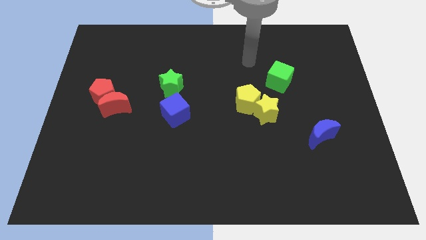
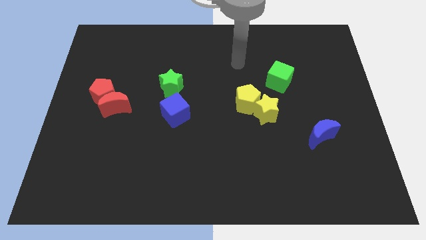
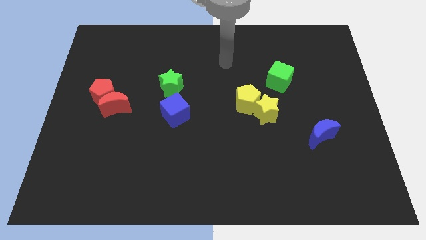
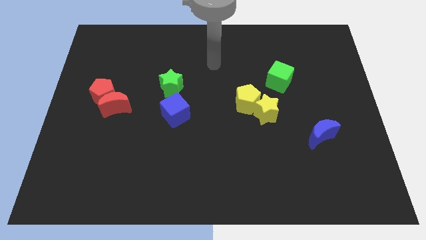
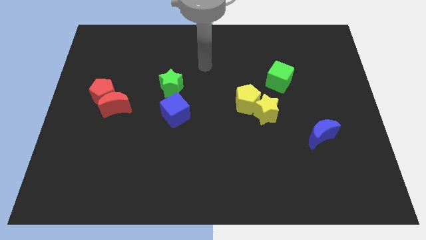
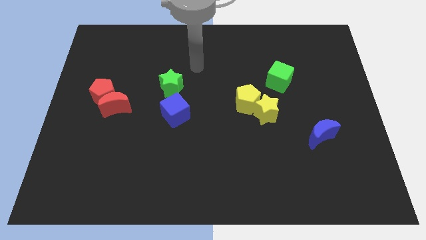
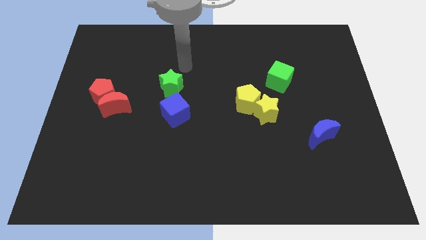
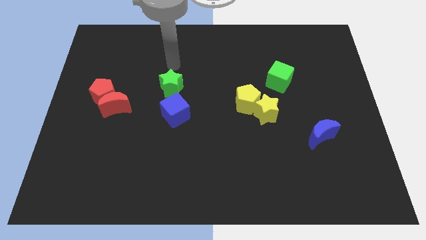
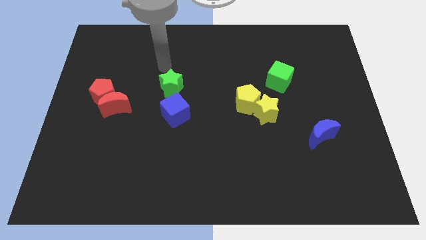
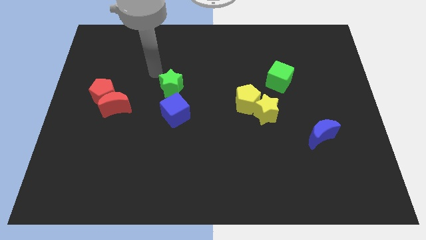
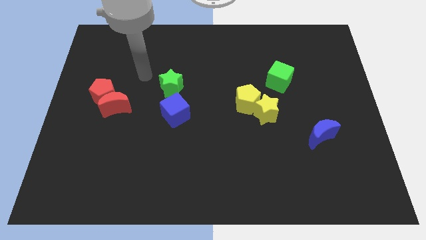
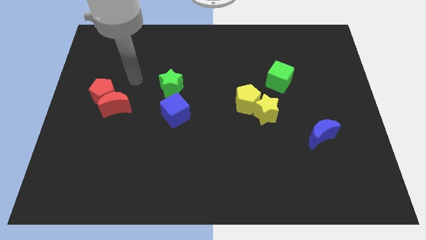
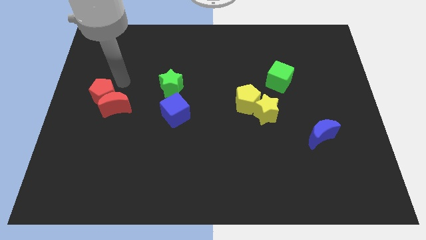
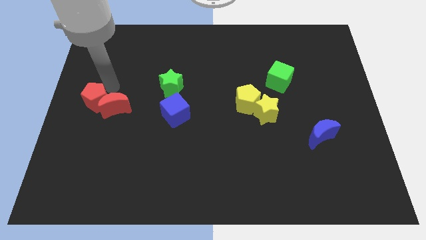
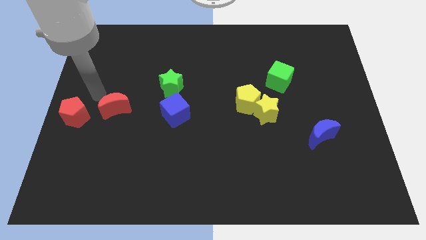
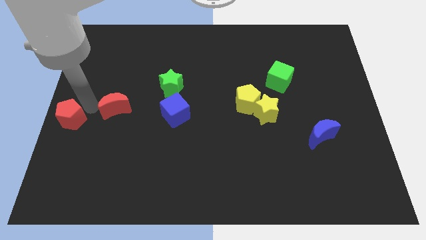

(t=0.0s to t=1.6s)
pull the red moon apart from the red pentagon

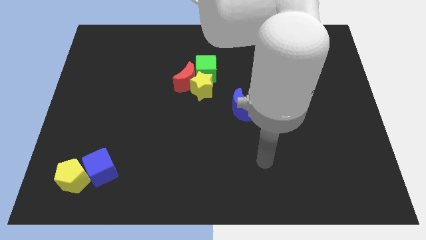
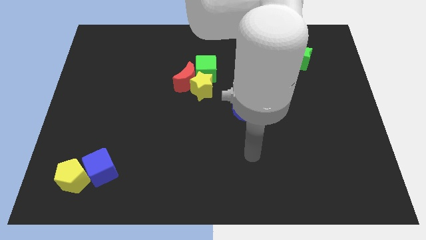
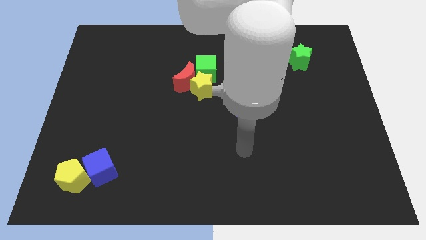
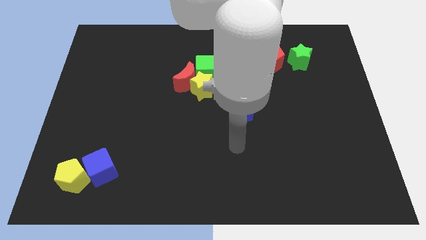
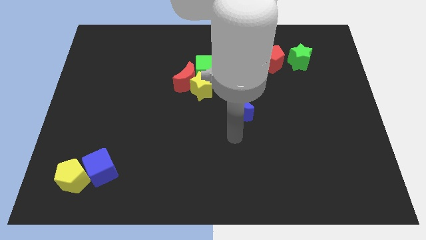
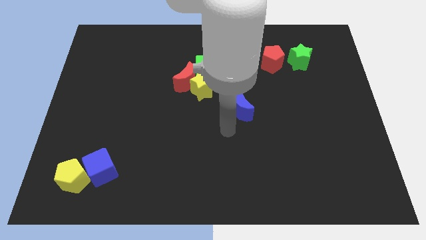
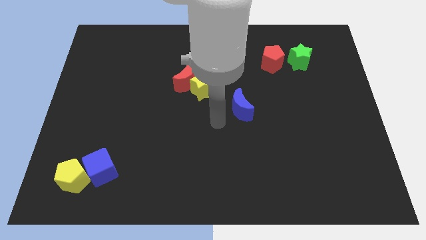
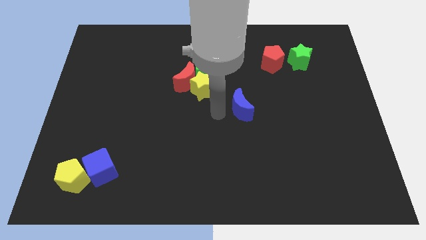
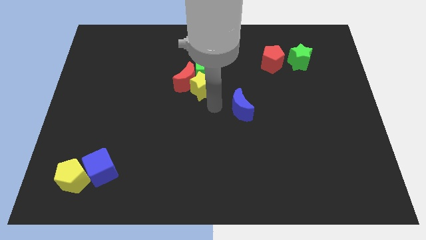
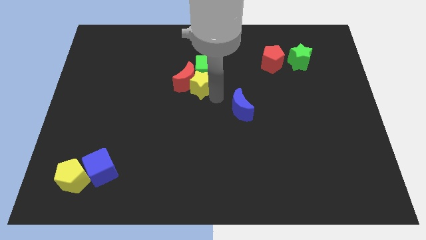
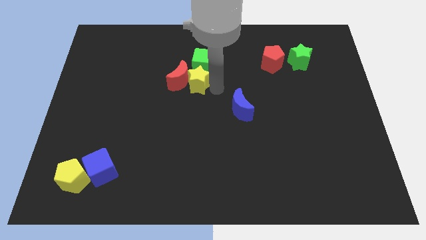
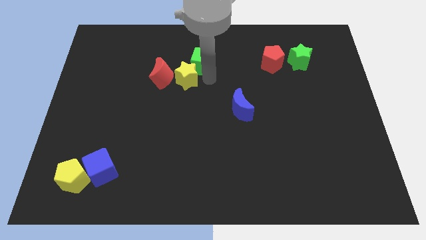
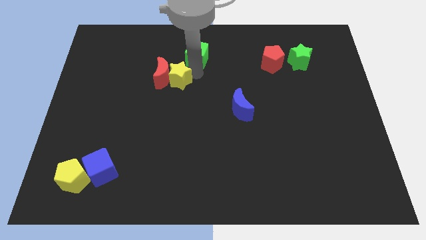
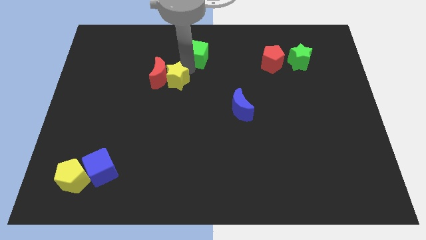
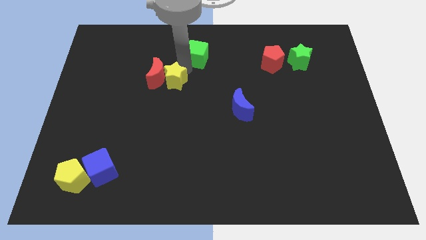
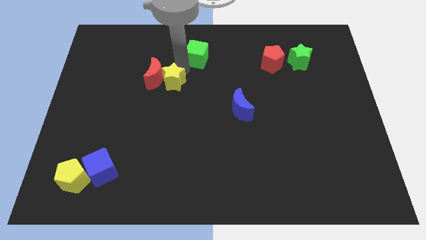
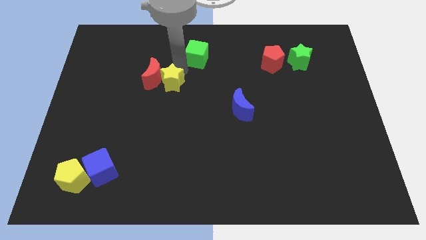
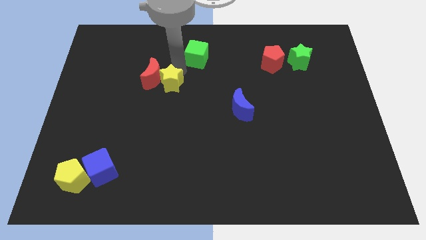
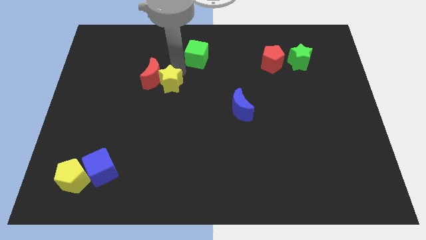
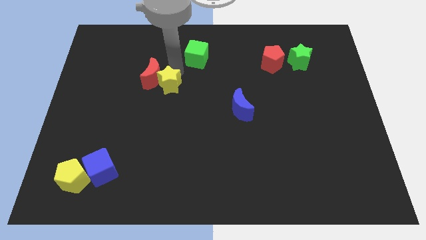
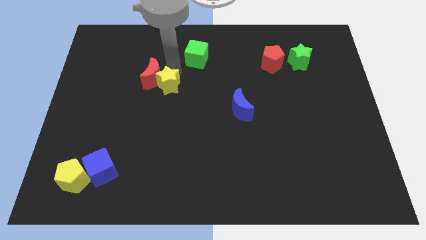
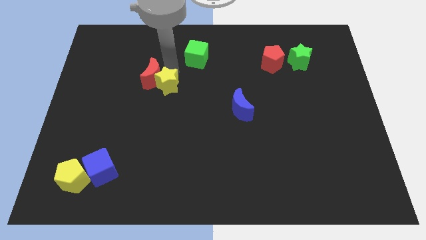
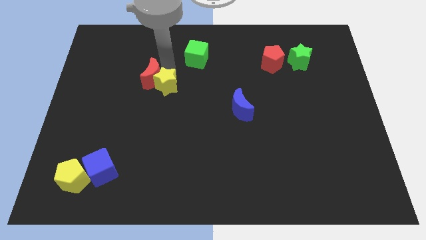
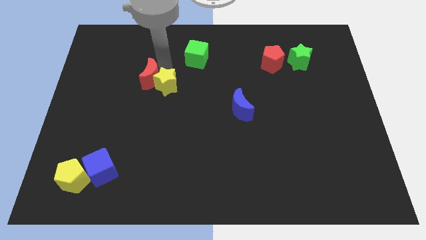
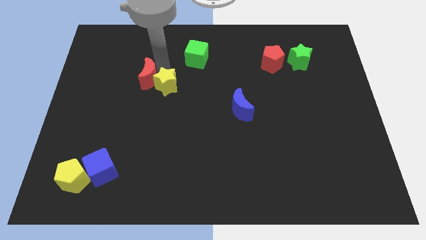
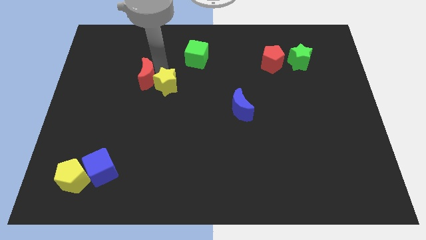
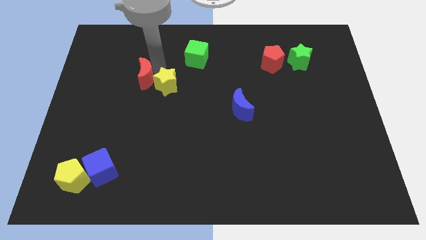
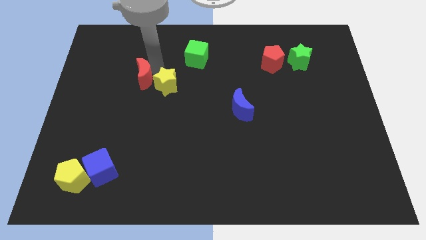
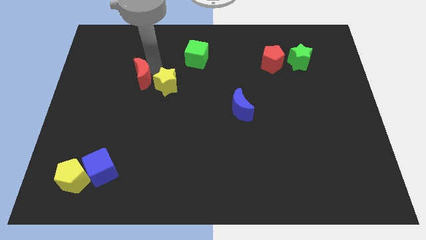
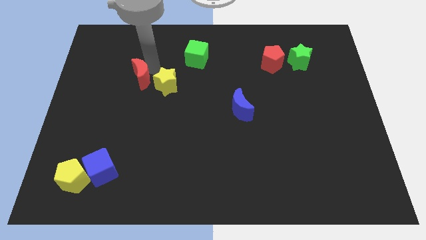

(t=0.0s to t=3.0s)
move the red moon away from the yellow star and green cube

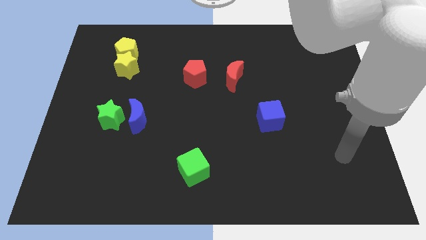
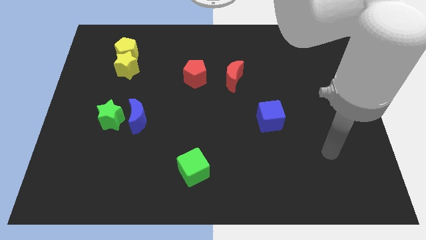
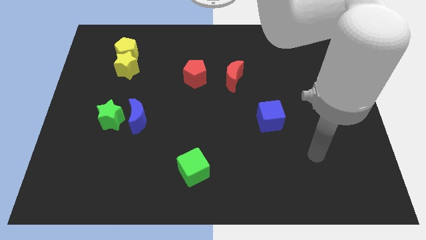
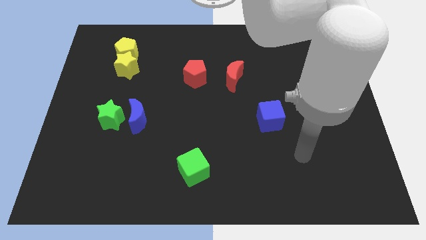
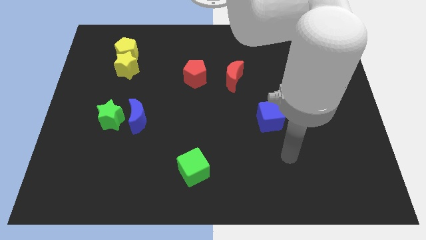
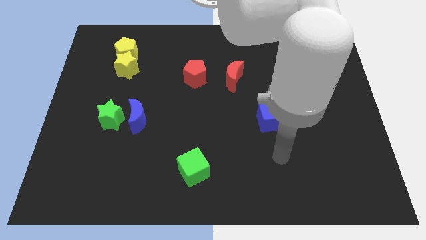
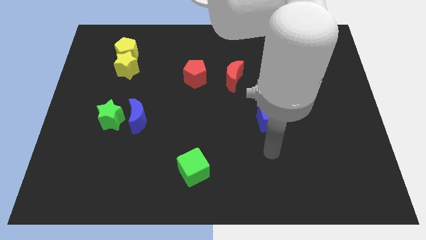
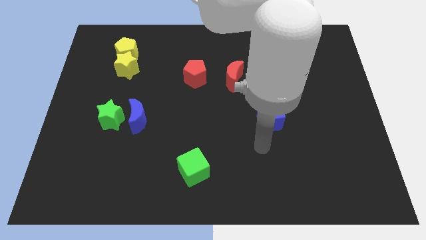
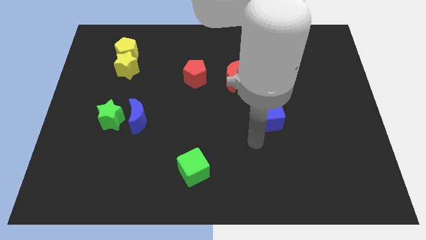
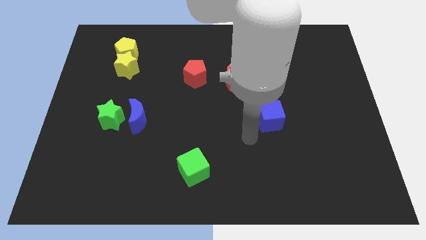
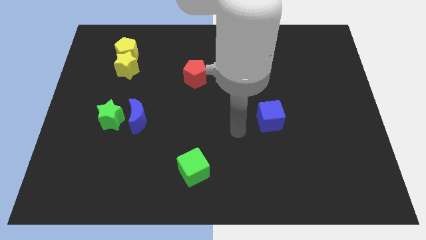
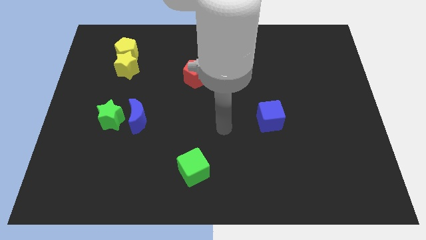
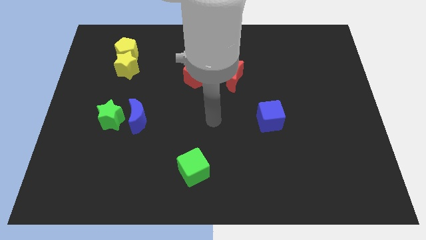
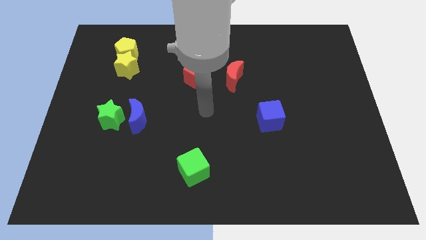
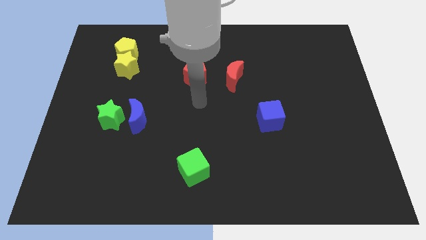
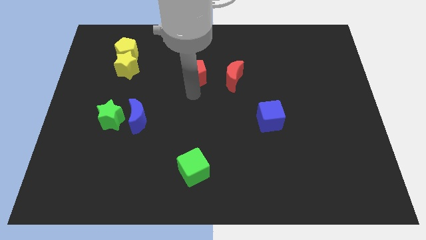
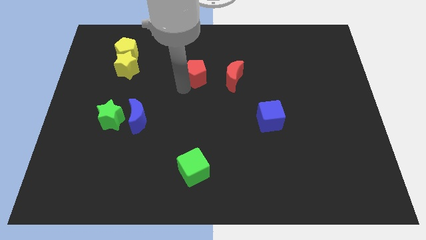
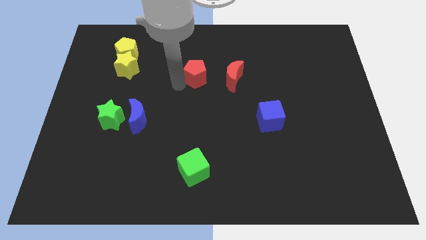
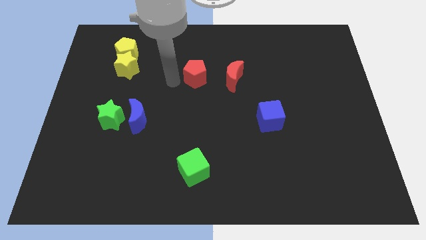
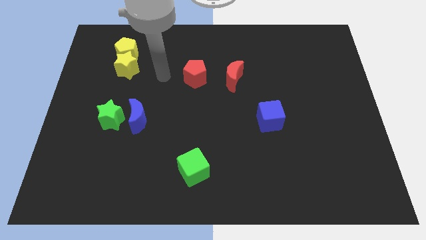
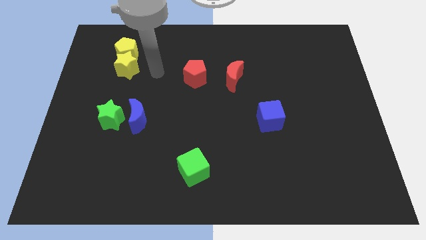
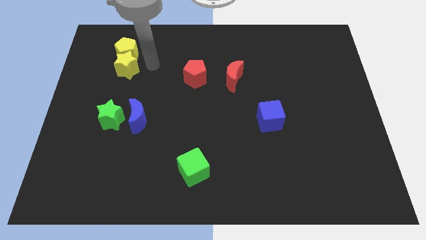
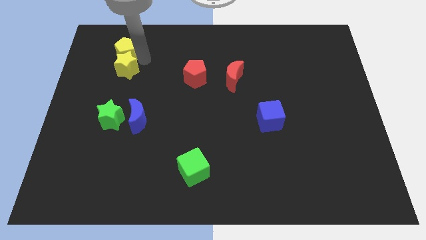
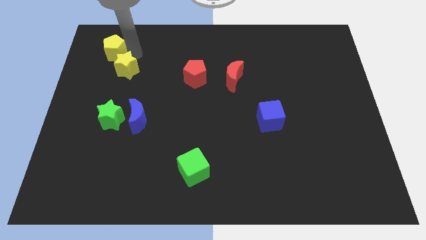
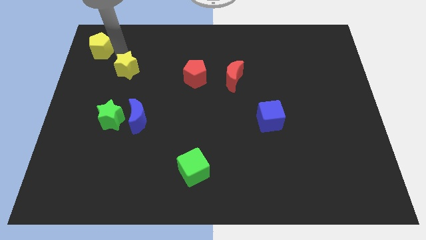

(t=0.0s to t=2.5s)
pull the yellow star apart from the yellow pentagon

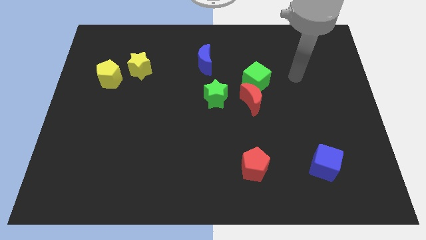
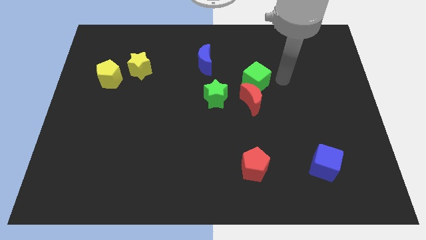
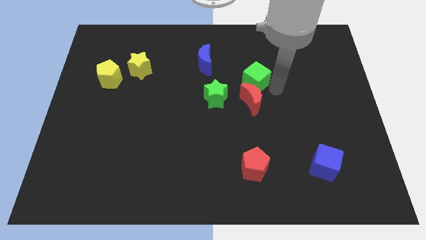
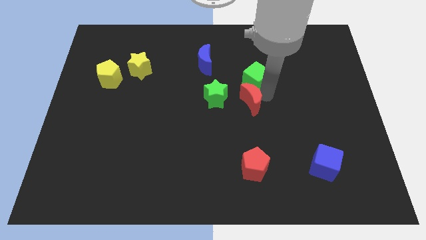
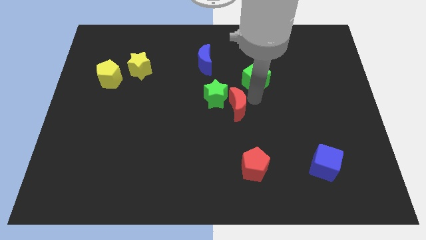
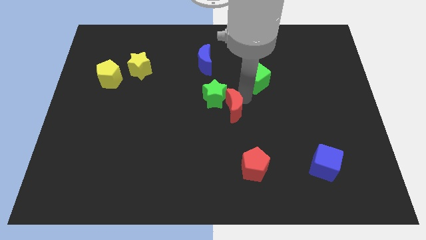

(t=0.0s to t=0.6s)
pull the green cube apart from the red moon

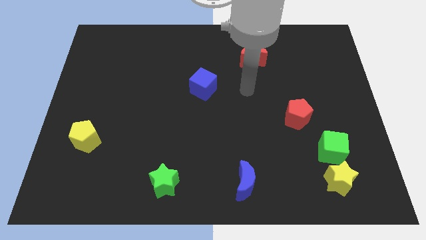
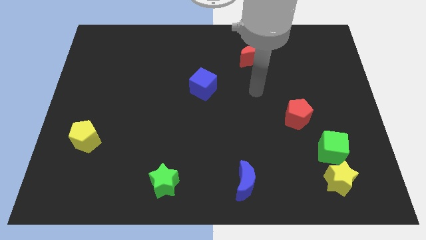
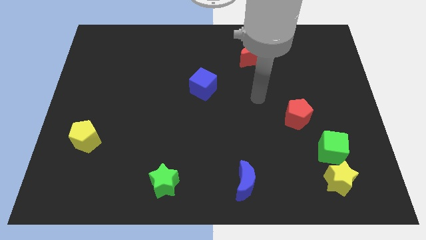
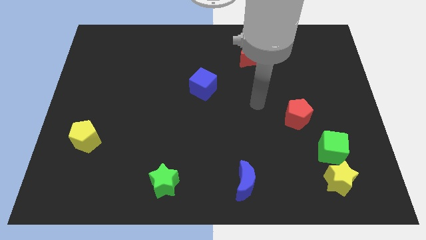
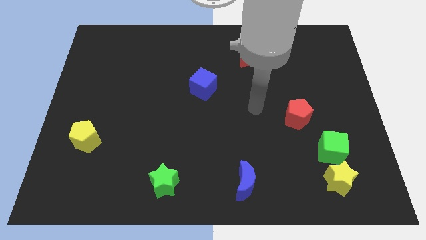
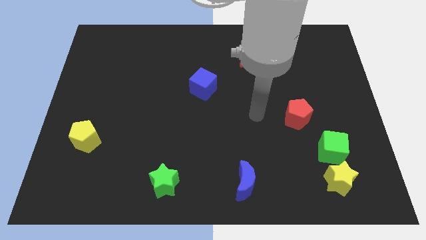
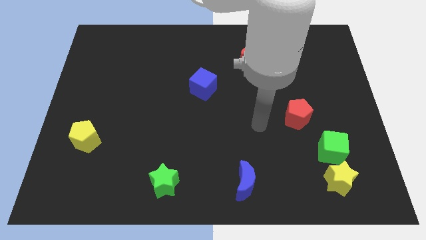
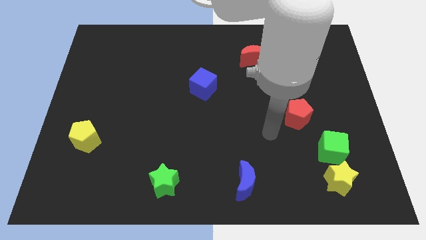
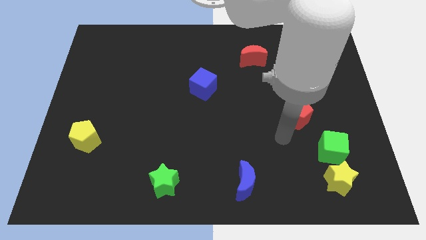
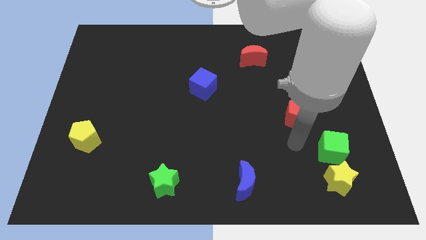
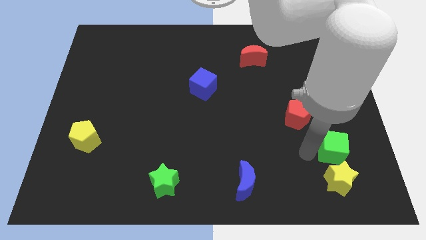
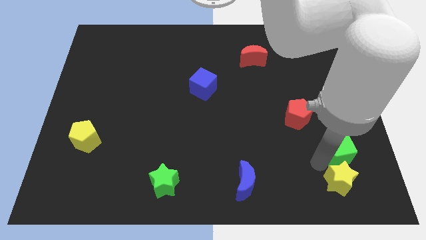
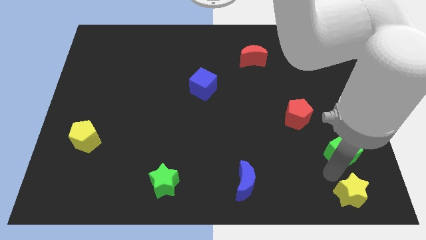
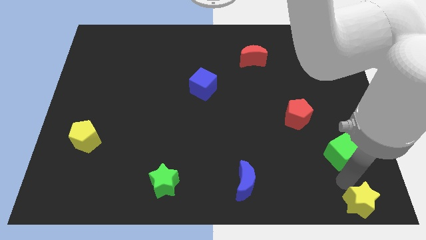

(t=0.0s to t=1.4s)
move the green cube away from the yellow star

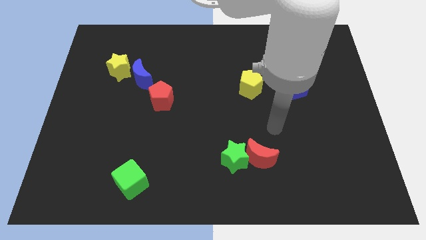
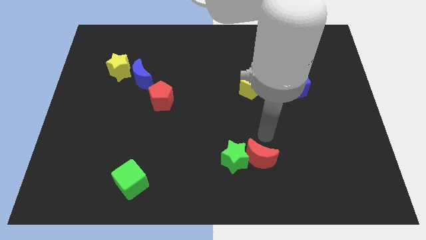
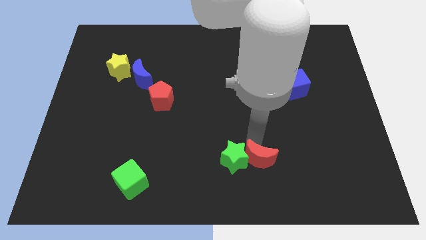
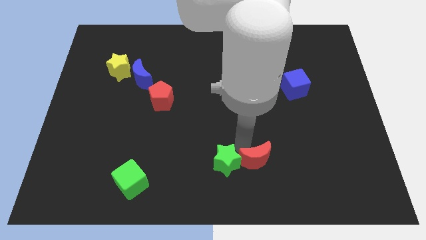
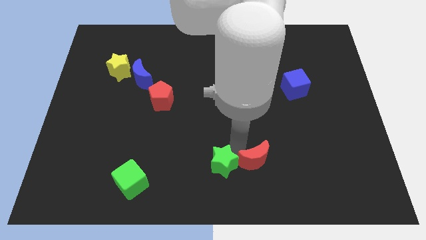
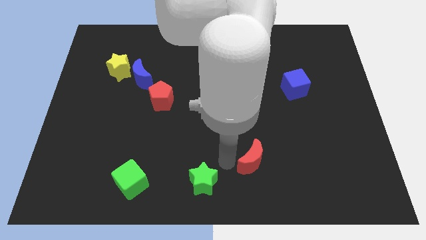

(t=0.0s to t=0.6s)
separate the red moon from the green star
